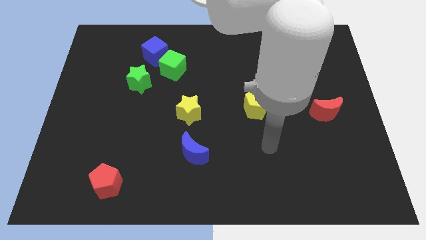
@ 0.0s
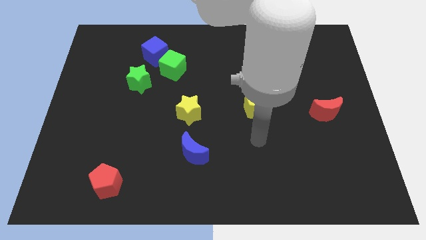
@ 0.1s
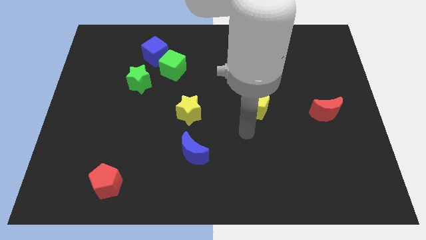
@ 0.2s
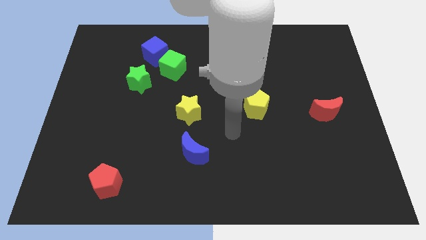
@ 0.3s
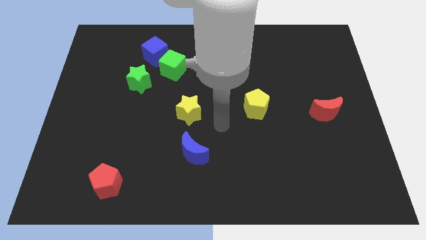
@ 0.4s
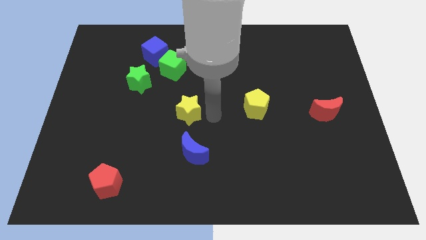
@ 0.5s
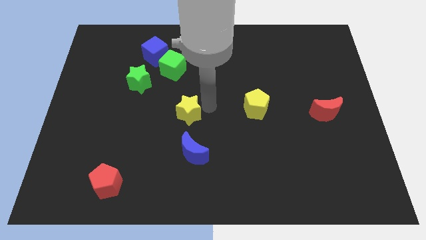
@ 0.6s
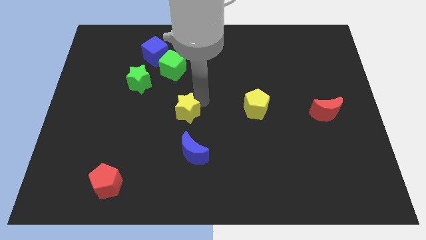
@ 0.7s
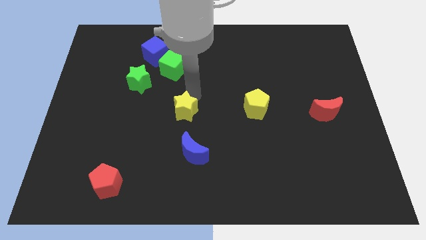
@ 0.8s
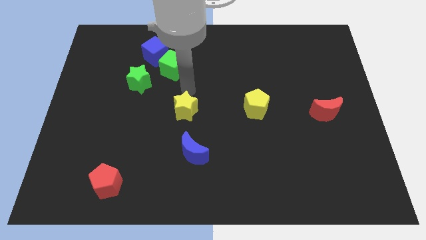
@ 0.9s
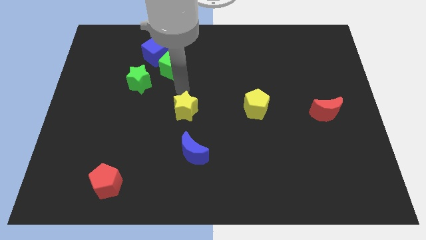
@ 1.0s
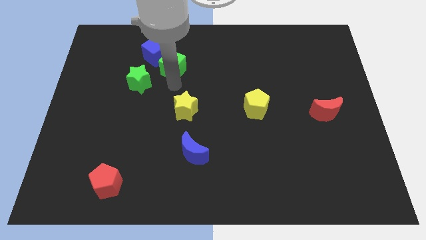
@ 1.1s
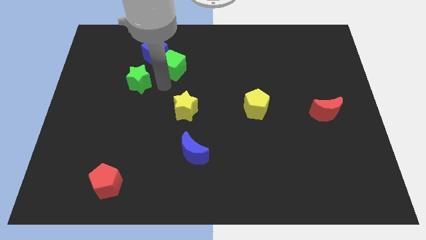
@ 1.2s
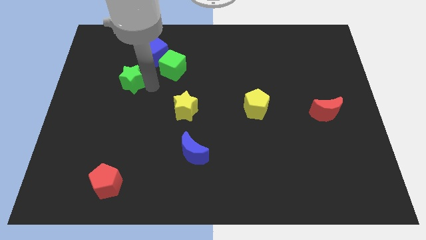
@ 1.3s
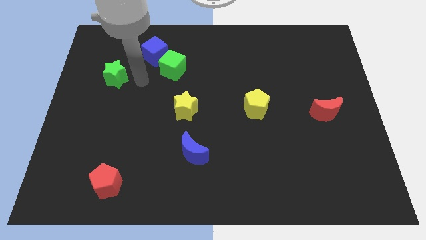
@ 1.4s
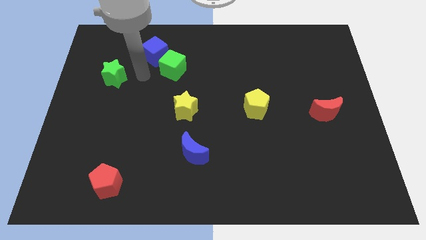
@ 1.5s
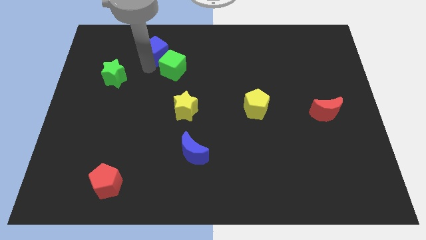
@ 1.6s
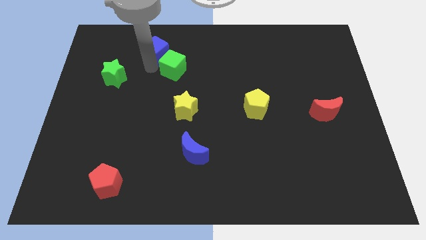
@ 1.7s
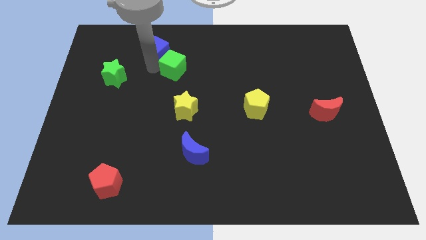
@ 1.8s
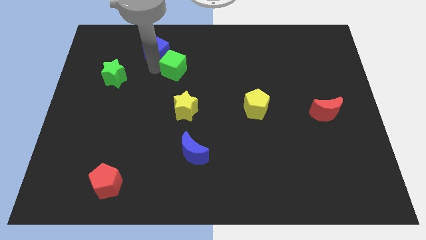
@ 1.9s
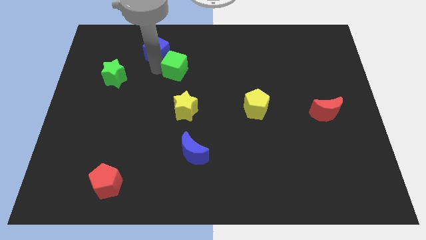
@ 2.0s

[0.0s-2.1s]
move the green cube away from the blue cube and green star

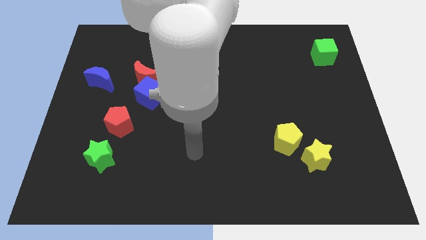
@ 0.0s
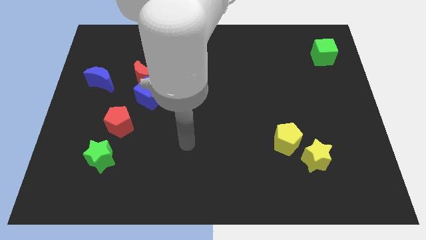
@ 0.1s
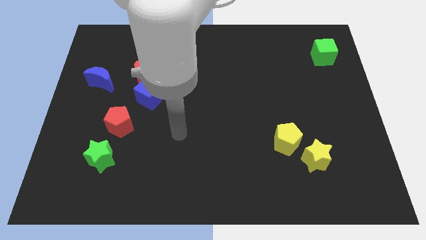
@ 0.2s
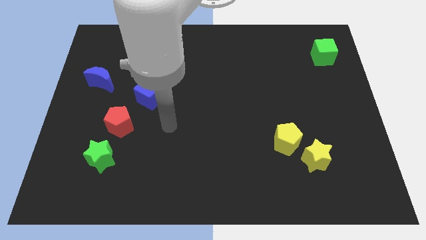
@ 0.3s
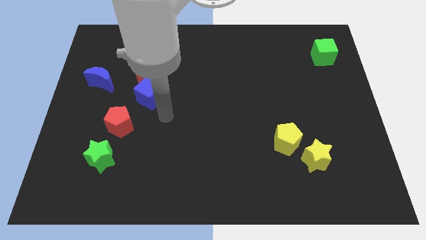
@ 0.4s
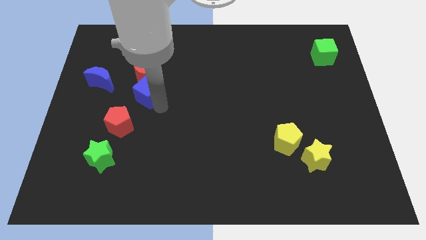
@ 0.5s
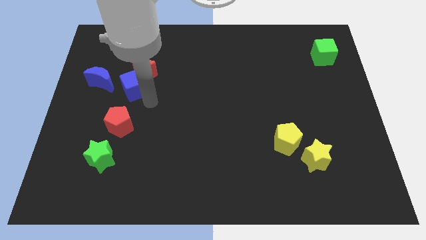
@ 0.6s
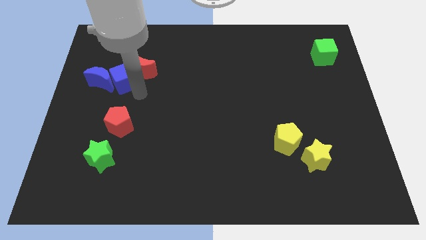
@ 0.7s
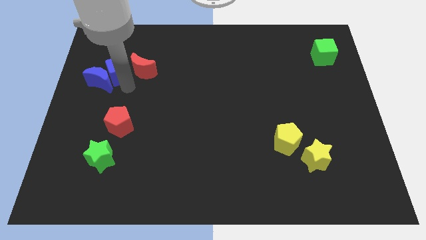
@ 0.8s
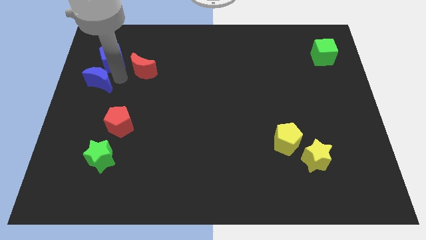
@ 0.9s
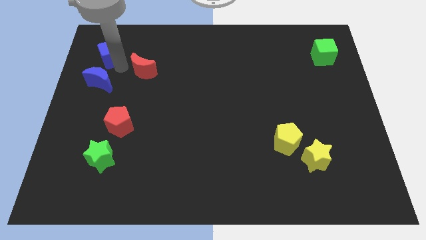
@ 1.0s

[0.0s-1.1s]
separate the red moon from the blue cube

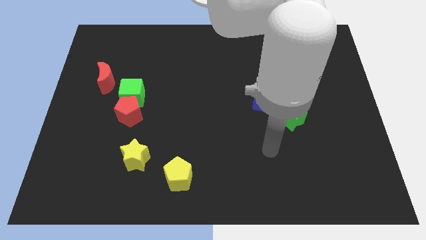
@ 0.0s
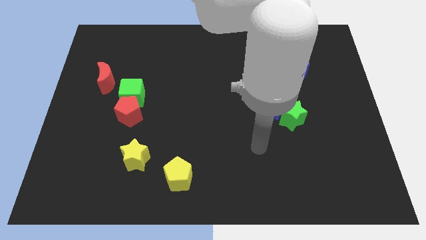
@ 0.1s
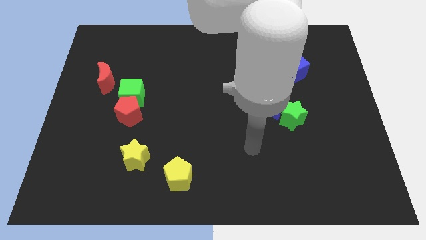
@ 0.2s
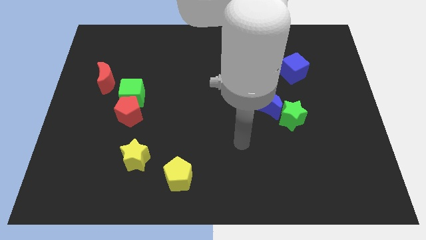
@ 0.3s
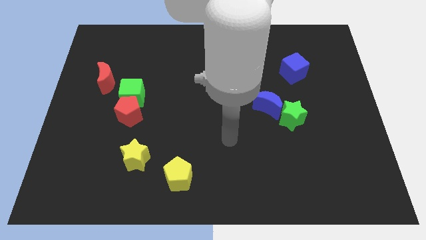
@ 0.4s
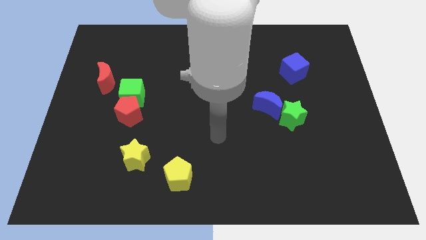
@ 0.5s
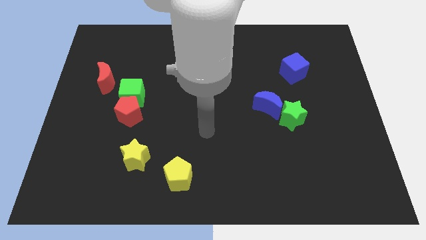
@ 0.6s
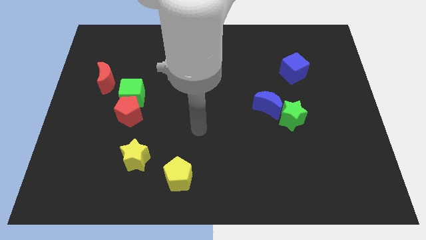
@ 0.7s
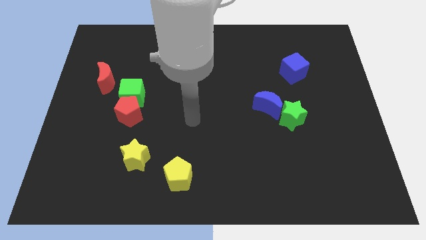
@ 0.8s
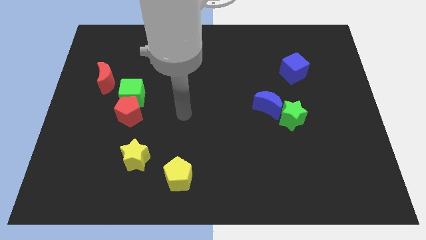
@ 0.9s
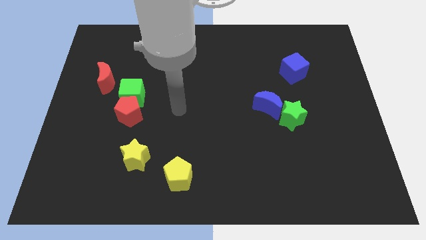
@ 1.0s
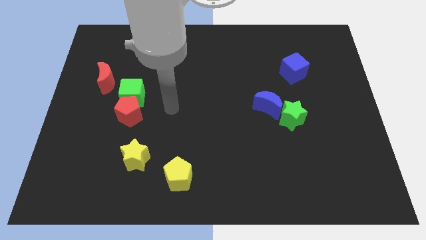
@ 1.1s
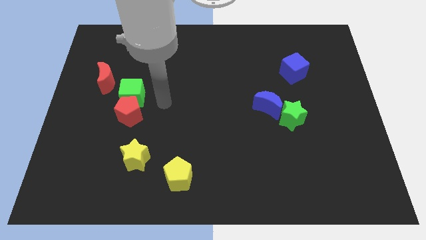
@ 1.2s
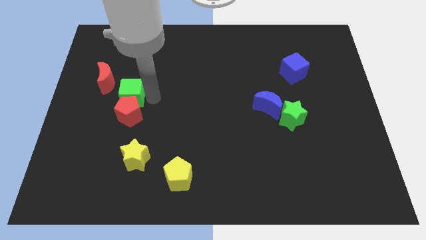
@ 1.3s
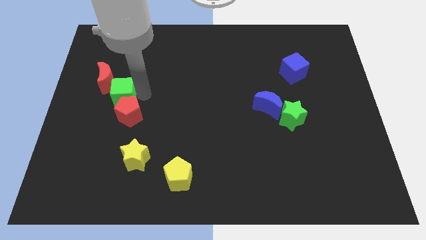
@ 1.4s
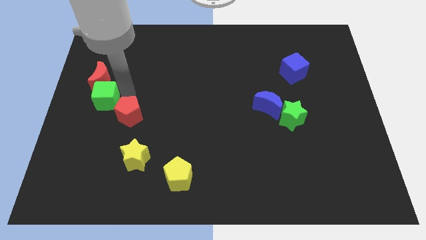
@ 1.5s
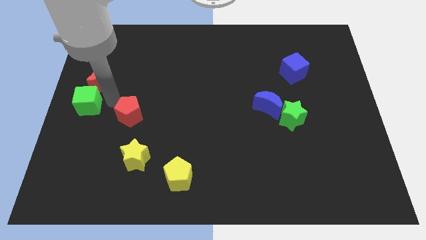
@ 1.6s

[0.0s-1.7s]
move the red pentagon away from the green cube

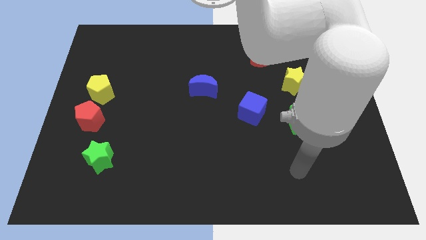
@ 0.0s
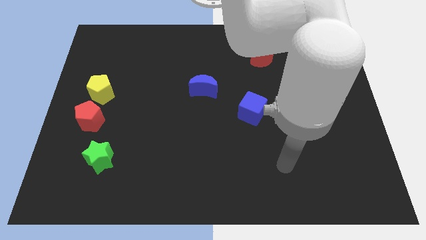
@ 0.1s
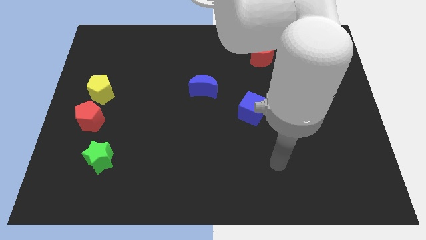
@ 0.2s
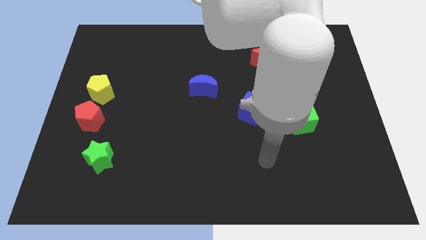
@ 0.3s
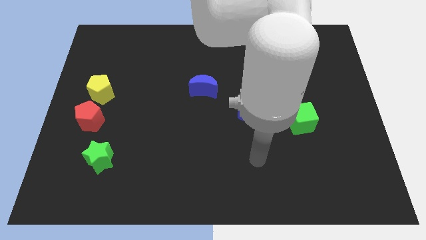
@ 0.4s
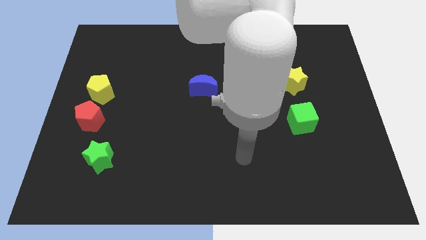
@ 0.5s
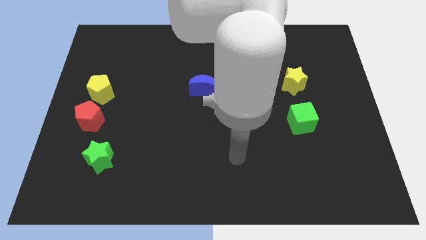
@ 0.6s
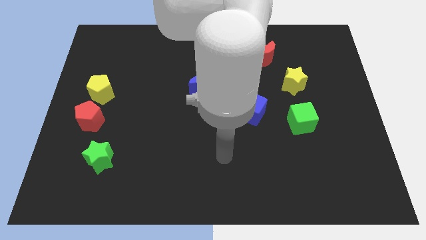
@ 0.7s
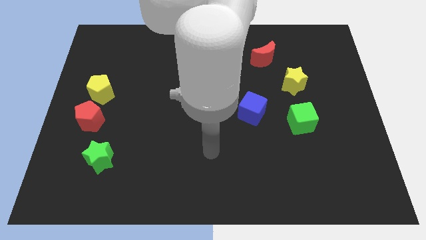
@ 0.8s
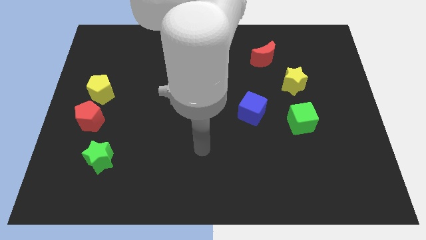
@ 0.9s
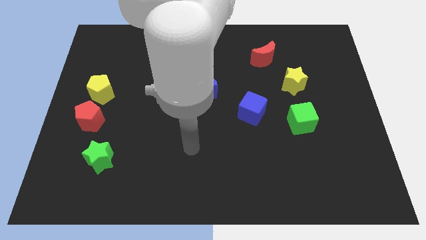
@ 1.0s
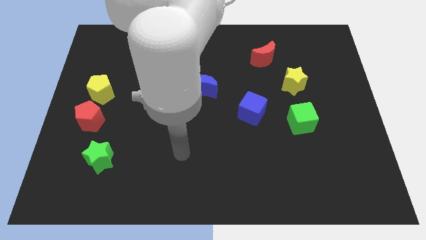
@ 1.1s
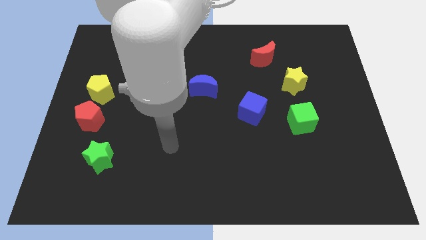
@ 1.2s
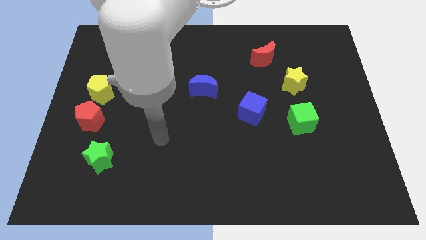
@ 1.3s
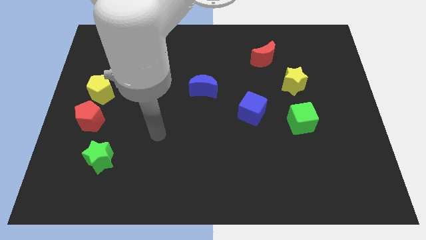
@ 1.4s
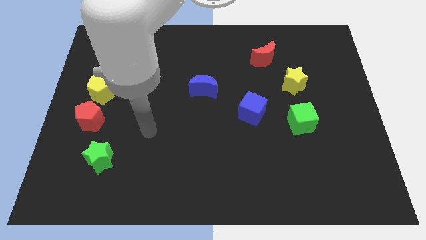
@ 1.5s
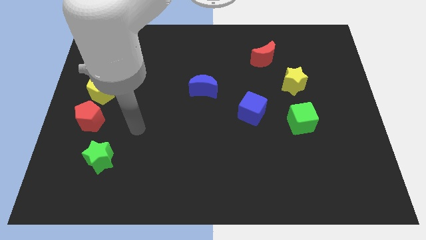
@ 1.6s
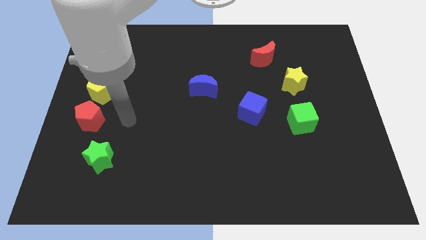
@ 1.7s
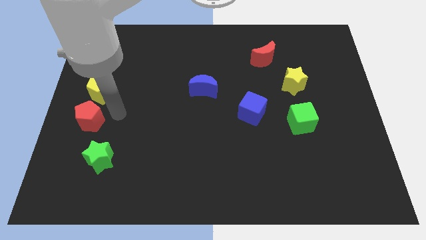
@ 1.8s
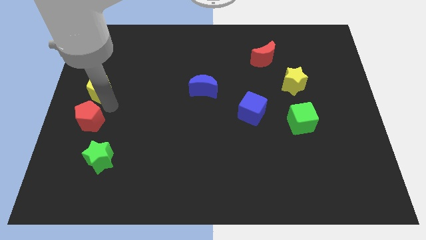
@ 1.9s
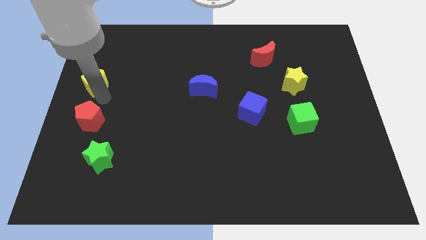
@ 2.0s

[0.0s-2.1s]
move the red pentagon away from the yellow pentagon

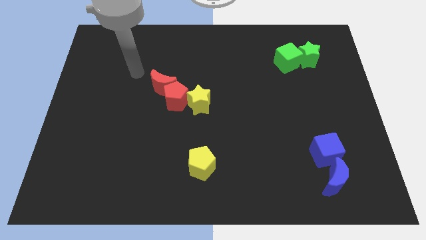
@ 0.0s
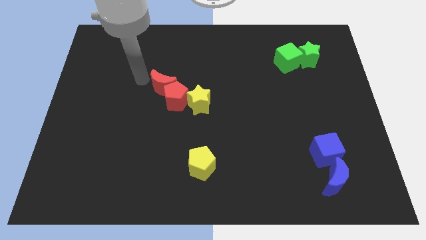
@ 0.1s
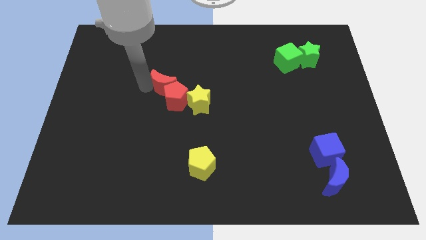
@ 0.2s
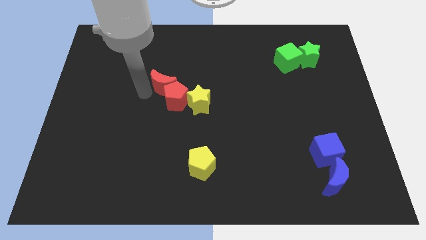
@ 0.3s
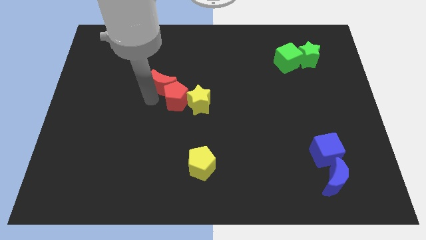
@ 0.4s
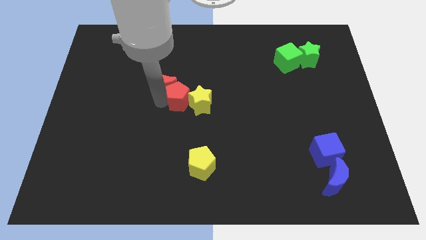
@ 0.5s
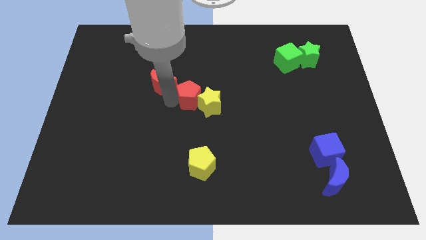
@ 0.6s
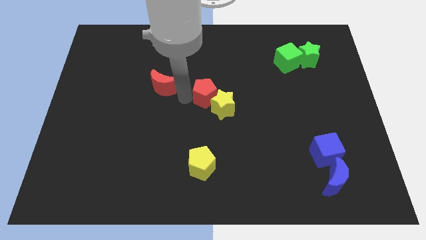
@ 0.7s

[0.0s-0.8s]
separate the red moon from the red pentagon

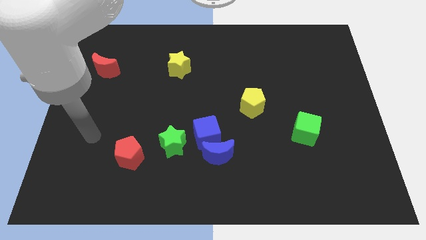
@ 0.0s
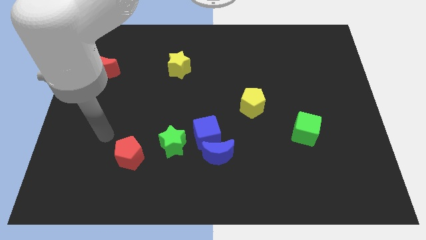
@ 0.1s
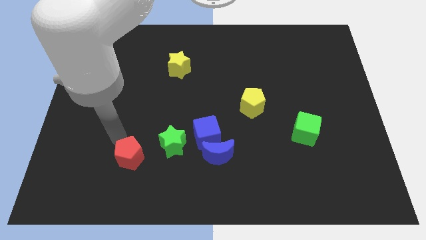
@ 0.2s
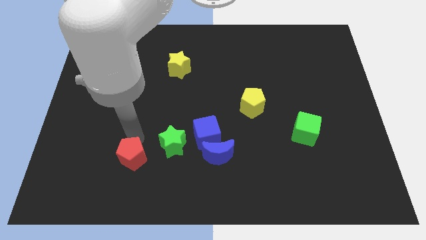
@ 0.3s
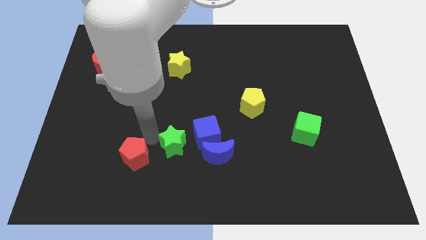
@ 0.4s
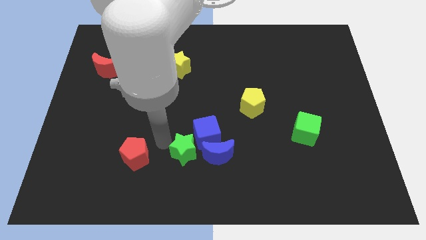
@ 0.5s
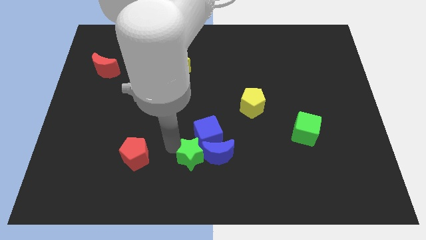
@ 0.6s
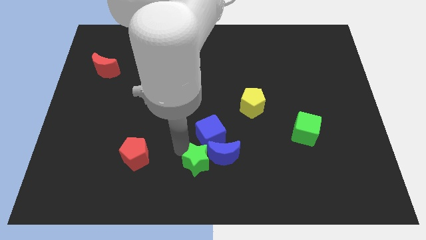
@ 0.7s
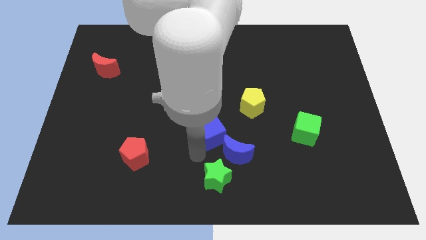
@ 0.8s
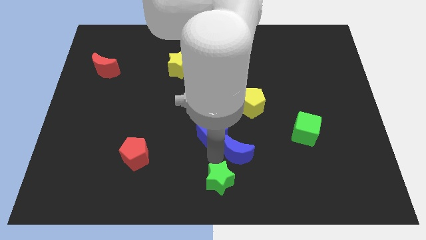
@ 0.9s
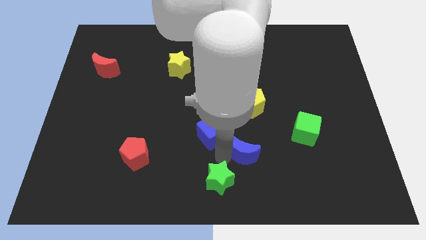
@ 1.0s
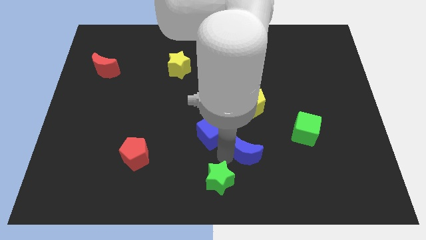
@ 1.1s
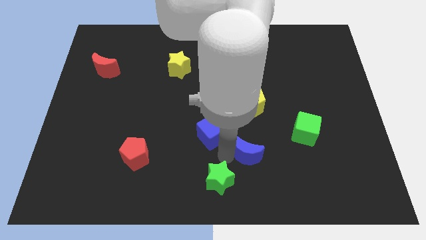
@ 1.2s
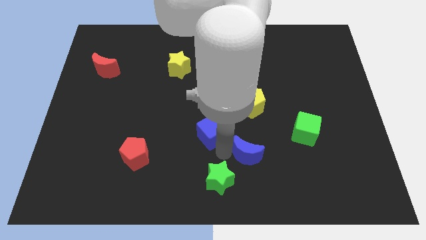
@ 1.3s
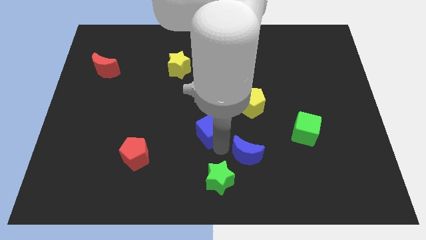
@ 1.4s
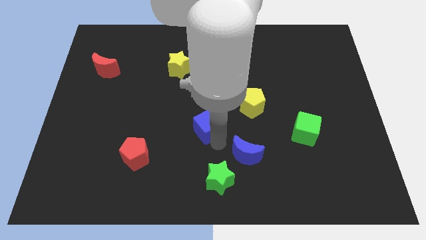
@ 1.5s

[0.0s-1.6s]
move the blue cube away from the blue moon and green star
